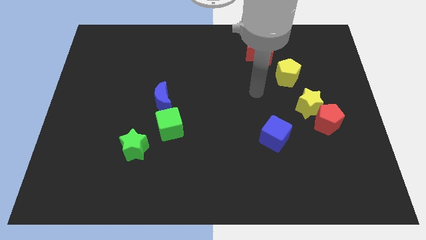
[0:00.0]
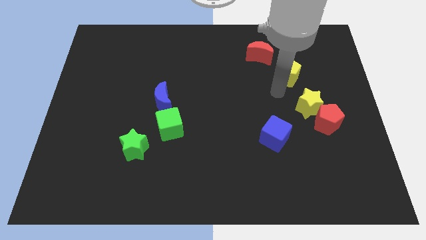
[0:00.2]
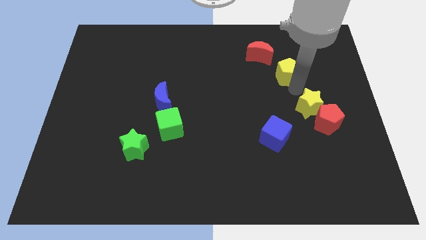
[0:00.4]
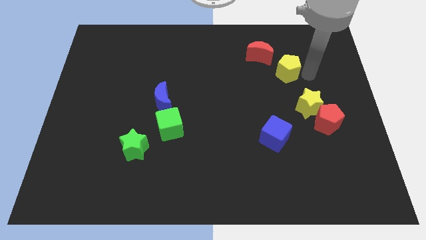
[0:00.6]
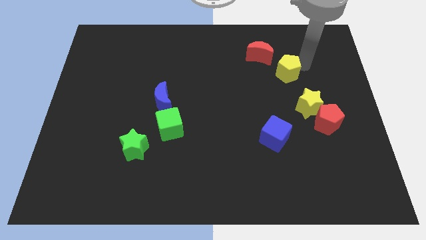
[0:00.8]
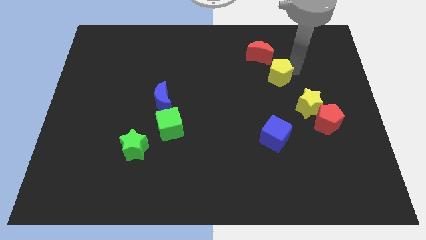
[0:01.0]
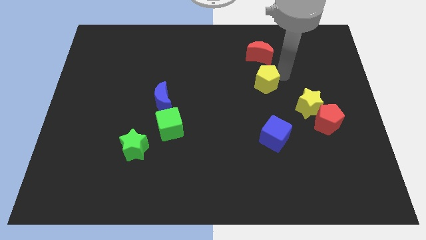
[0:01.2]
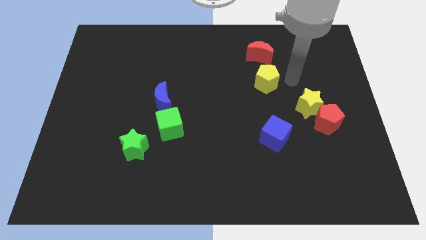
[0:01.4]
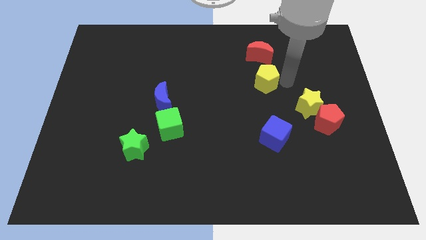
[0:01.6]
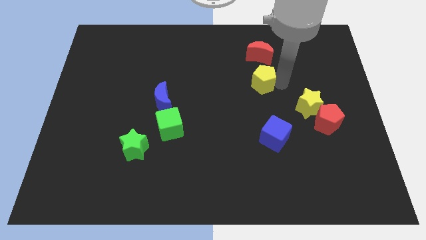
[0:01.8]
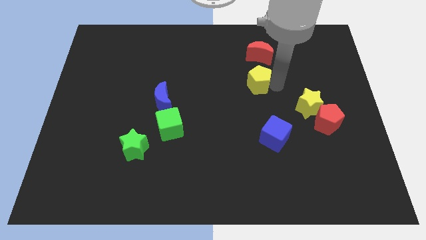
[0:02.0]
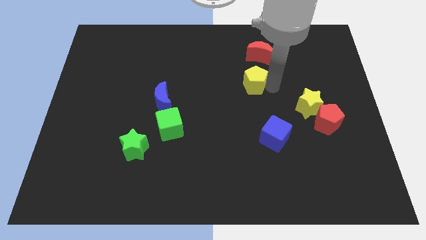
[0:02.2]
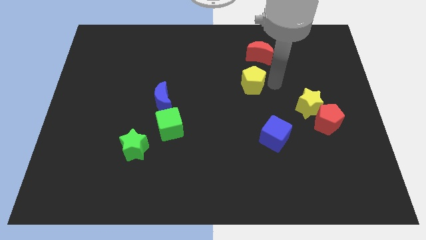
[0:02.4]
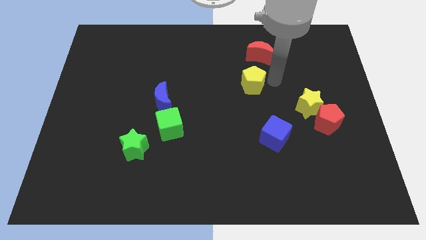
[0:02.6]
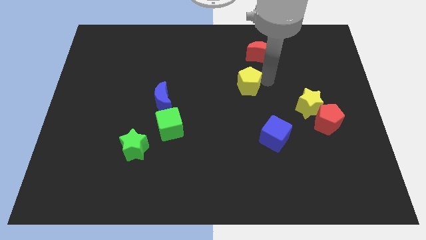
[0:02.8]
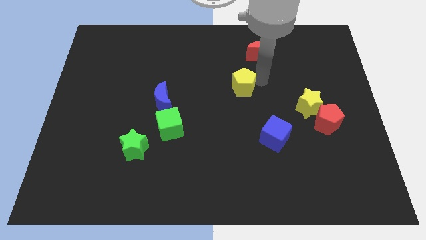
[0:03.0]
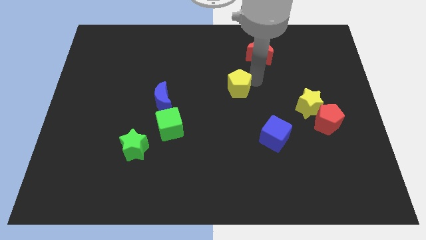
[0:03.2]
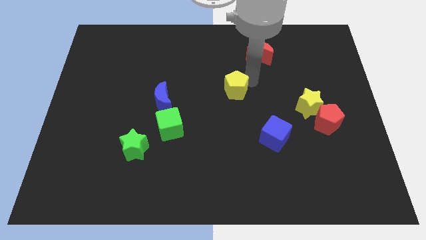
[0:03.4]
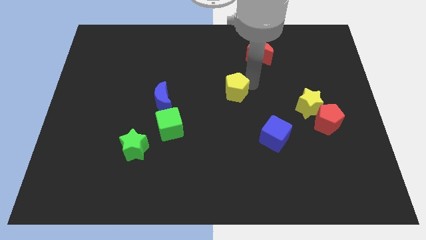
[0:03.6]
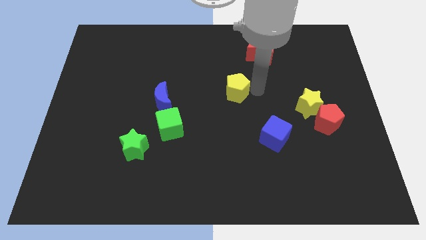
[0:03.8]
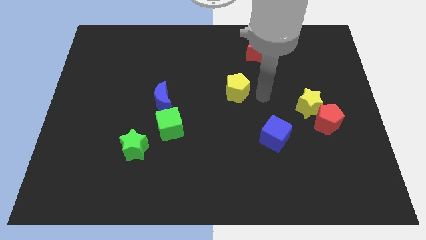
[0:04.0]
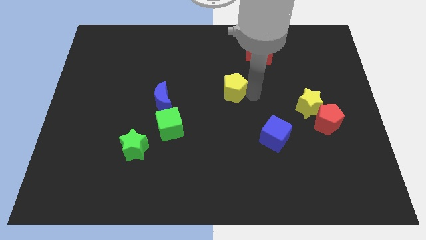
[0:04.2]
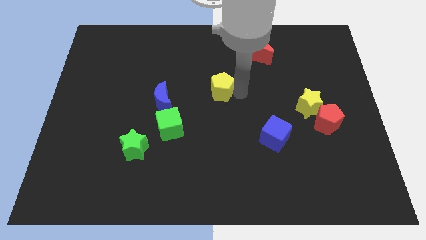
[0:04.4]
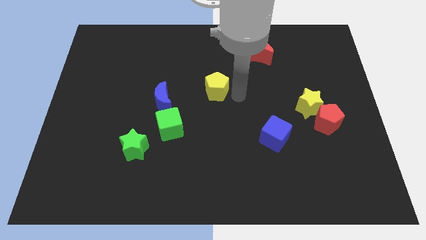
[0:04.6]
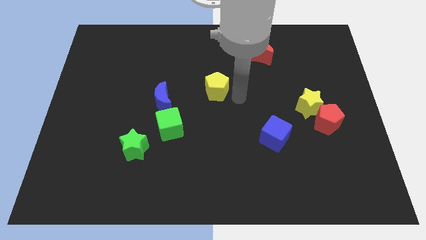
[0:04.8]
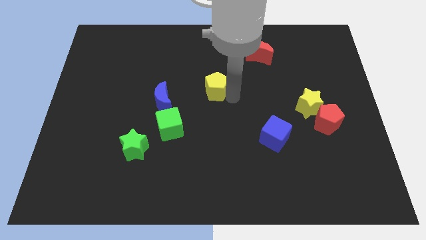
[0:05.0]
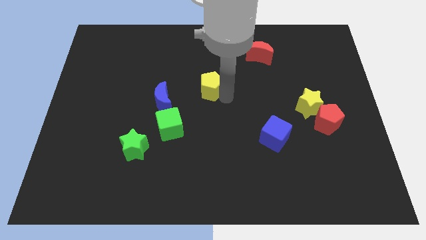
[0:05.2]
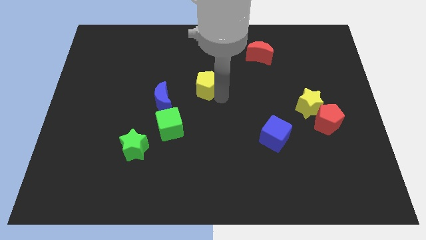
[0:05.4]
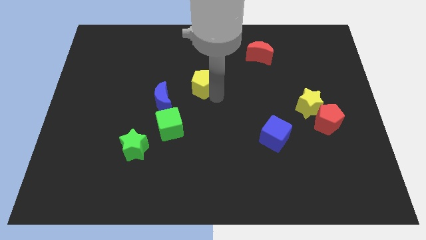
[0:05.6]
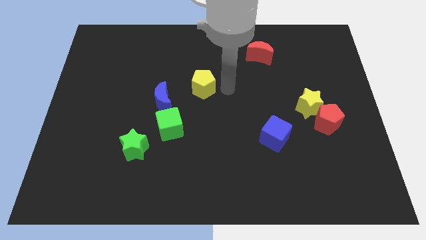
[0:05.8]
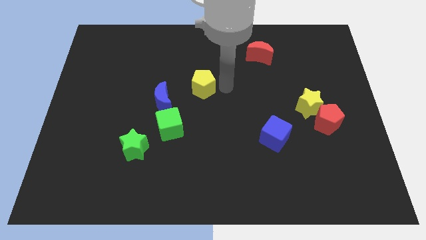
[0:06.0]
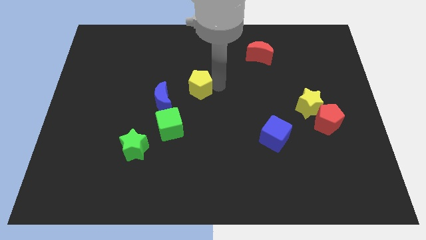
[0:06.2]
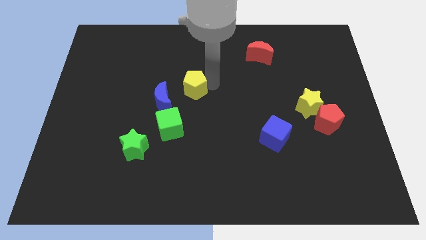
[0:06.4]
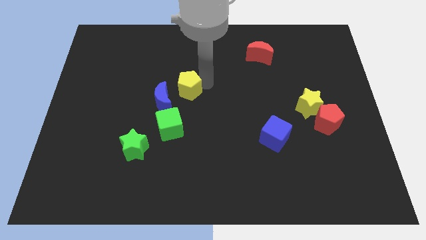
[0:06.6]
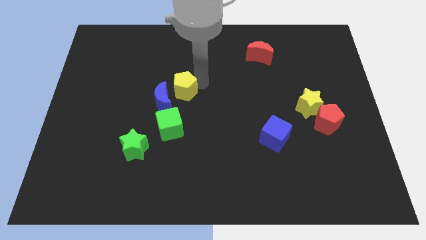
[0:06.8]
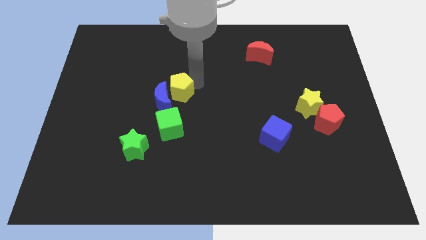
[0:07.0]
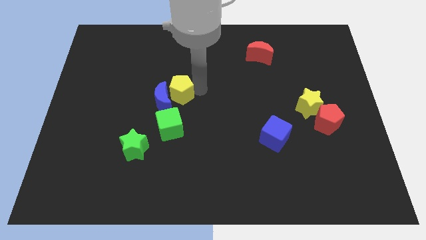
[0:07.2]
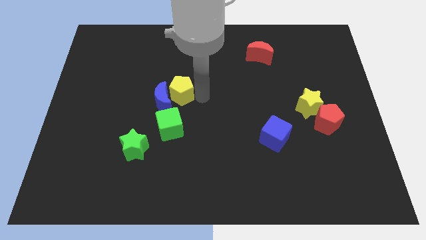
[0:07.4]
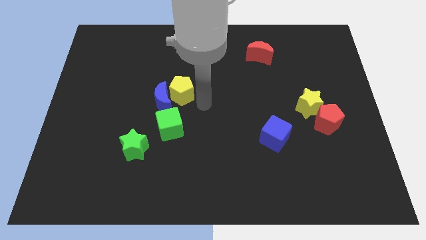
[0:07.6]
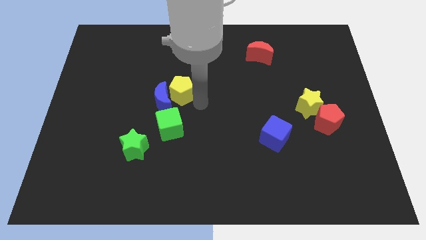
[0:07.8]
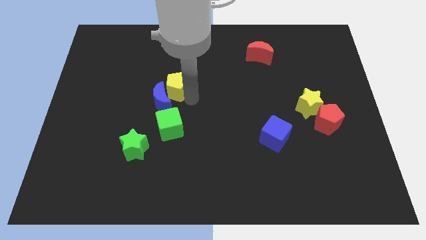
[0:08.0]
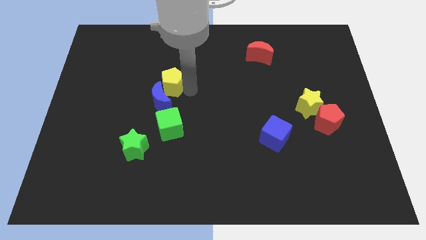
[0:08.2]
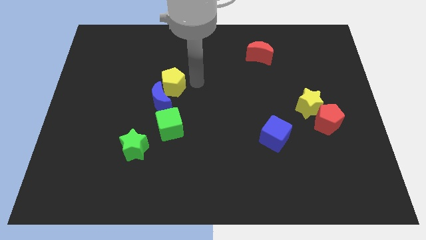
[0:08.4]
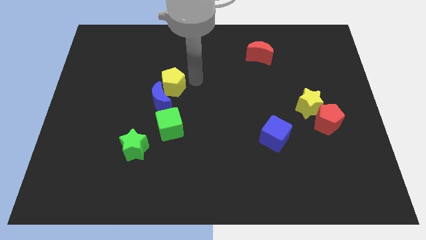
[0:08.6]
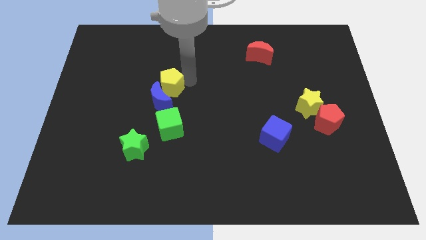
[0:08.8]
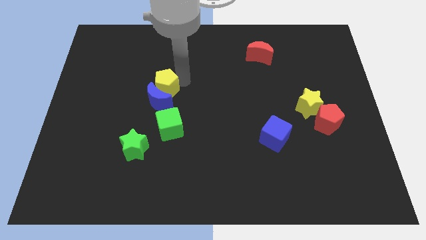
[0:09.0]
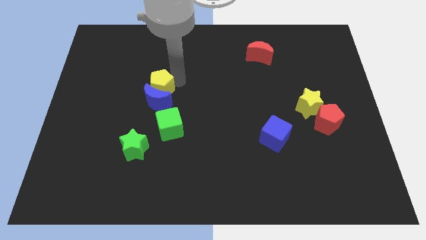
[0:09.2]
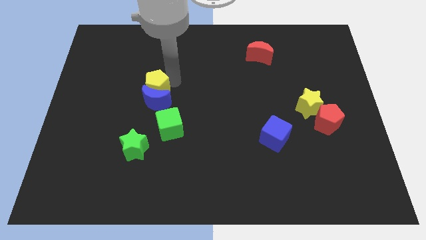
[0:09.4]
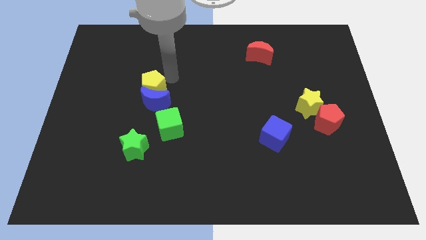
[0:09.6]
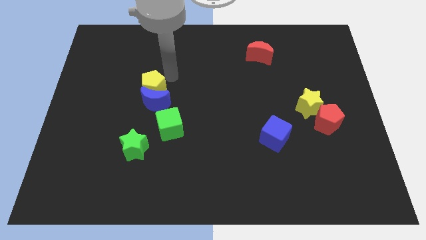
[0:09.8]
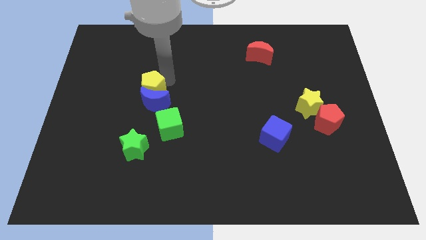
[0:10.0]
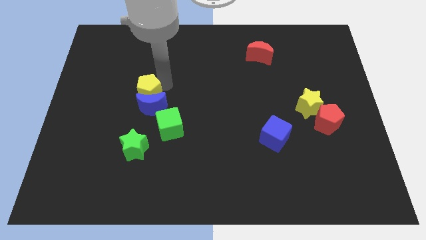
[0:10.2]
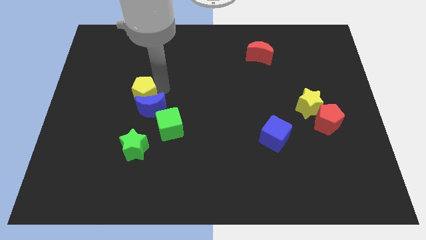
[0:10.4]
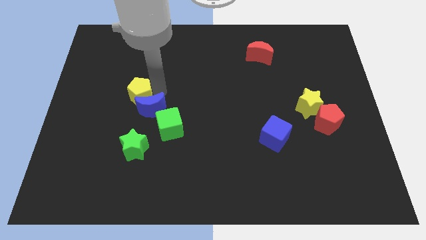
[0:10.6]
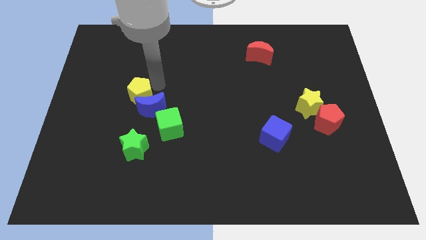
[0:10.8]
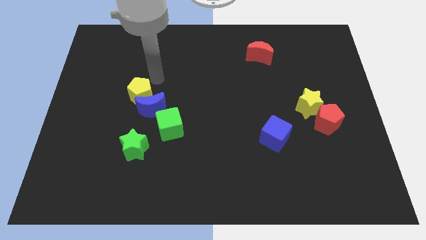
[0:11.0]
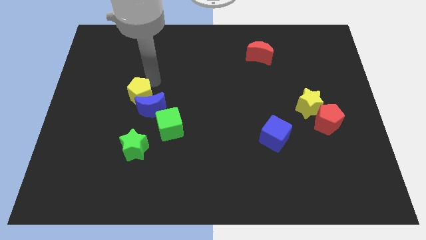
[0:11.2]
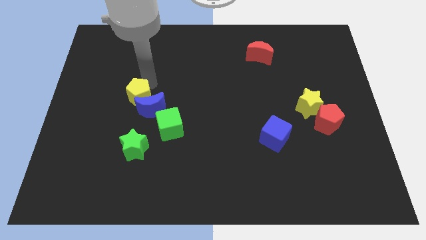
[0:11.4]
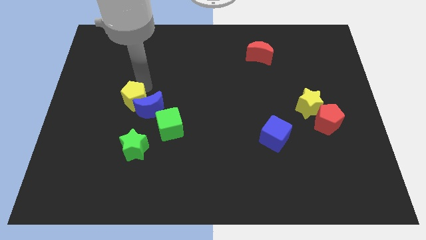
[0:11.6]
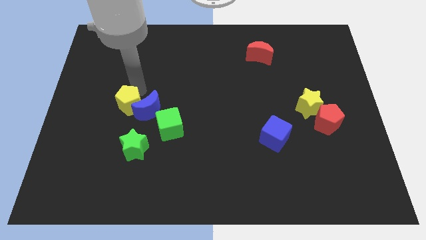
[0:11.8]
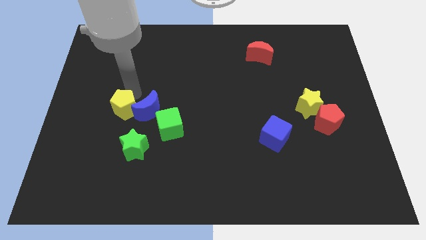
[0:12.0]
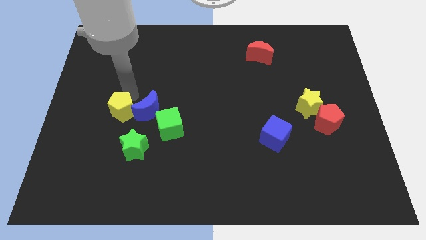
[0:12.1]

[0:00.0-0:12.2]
slide the yellow pentagon just left of the green cube
